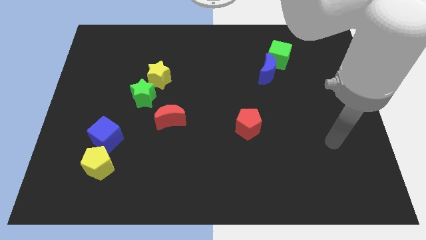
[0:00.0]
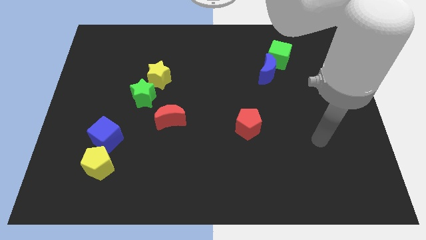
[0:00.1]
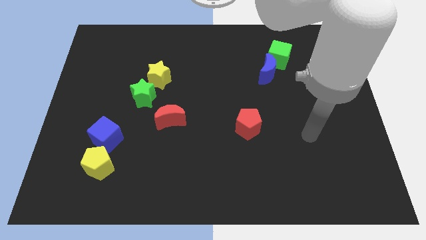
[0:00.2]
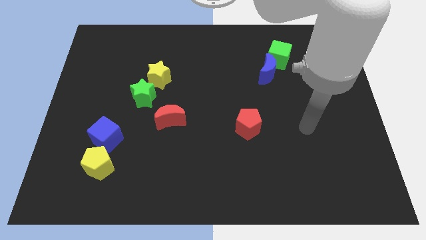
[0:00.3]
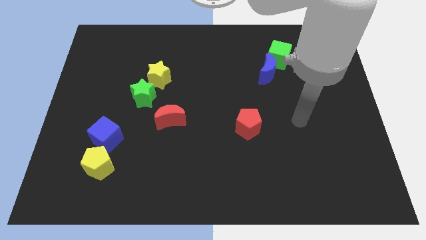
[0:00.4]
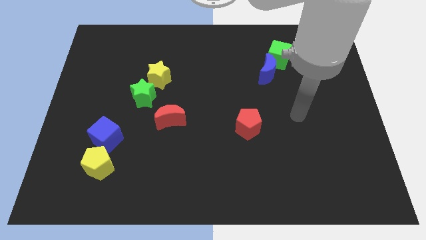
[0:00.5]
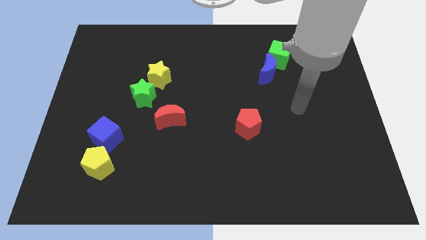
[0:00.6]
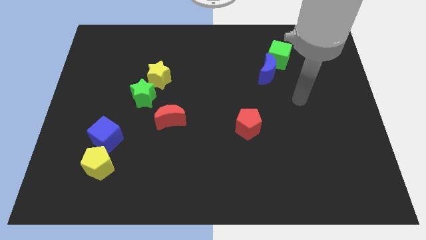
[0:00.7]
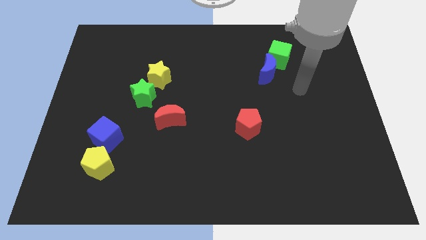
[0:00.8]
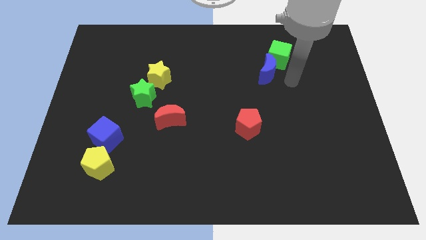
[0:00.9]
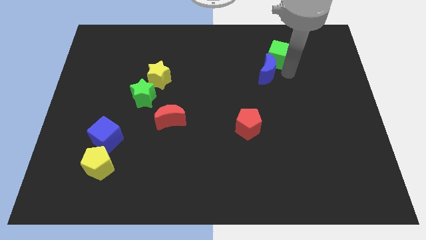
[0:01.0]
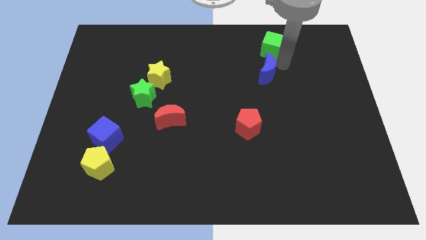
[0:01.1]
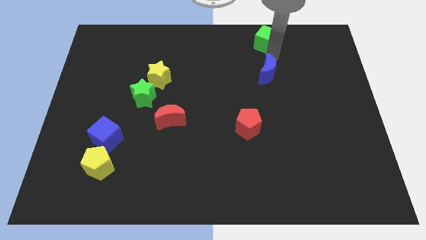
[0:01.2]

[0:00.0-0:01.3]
pull the blue moon apart from the green cube

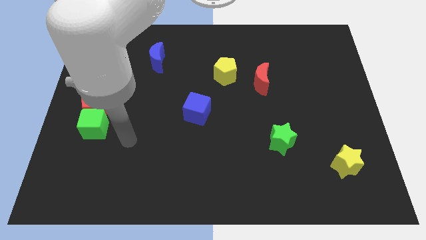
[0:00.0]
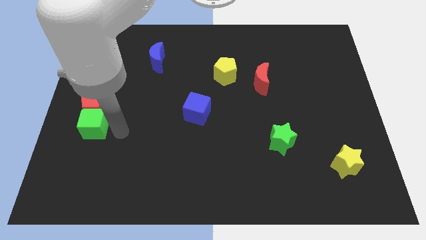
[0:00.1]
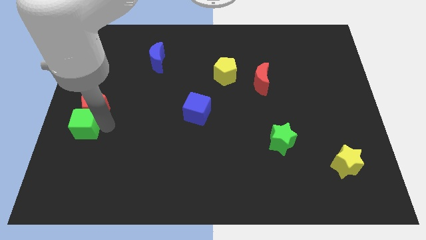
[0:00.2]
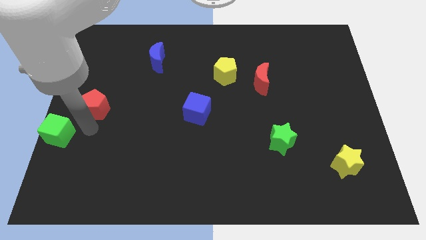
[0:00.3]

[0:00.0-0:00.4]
pull the red pentagon apart from the green cube

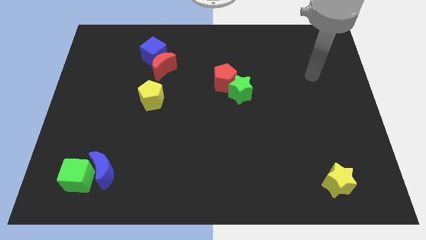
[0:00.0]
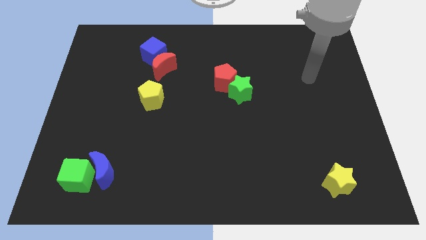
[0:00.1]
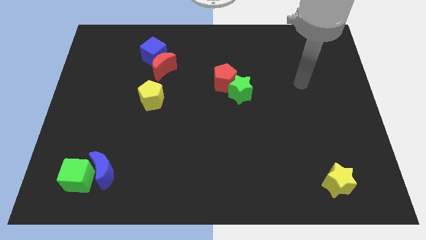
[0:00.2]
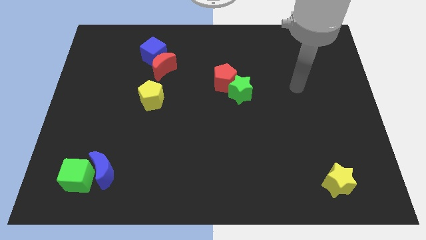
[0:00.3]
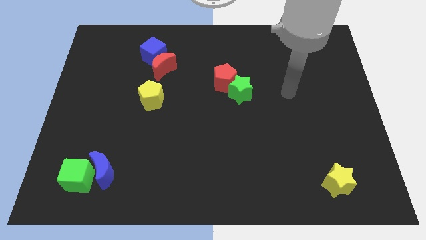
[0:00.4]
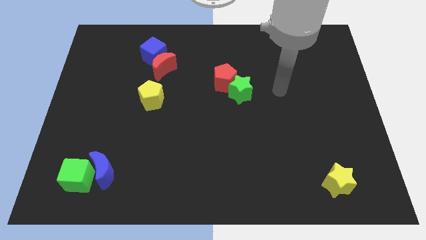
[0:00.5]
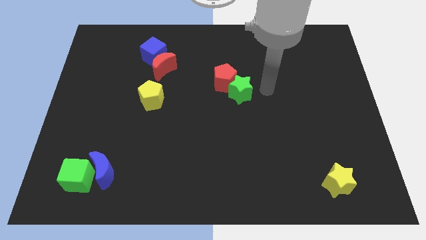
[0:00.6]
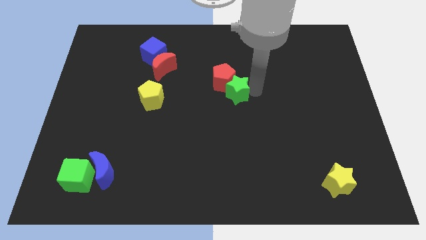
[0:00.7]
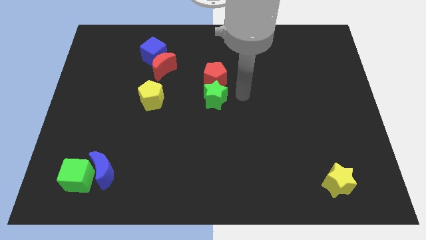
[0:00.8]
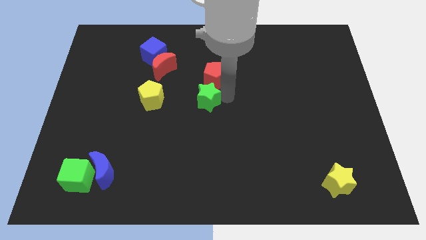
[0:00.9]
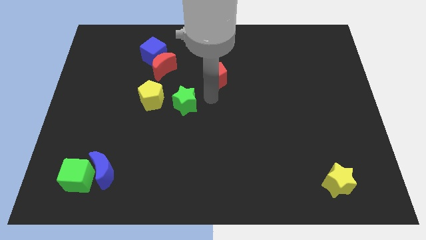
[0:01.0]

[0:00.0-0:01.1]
move the red pentagon away from the green star

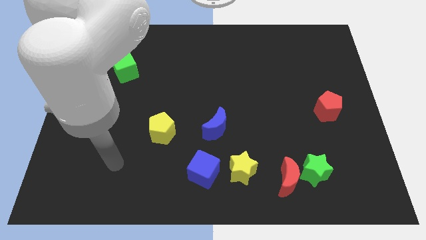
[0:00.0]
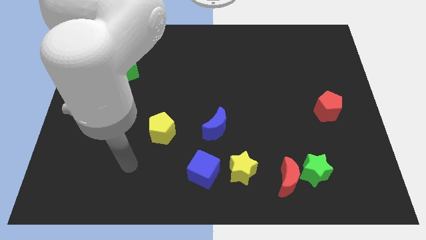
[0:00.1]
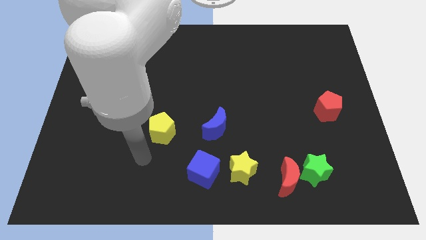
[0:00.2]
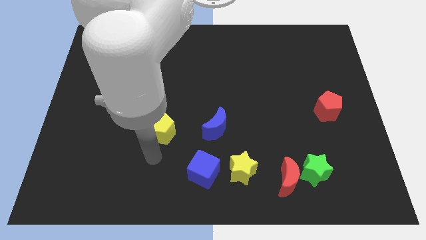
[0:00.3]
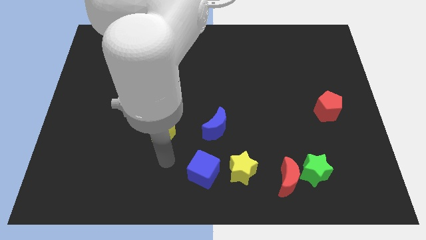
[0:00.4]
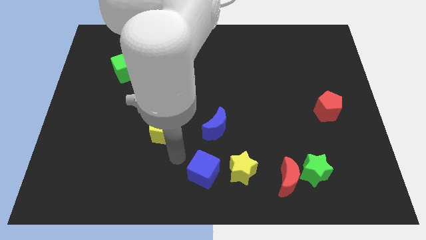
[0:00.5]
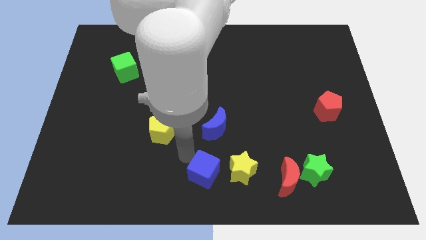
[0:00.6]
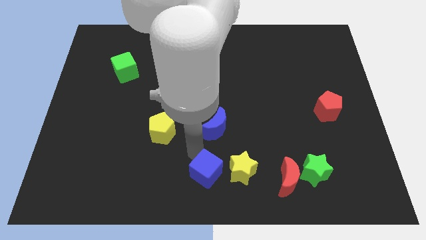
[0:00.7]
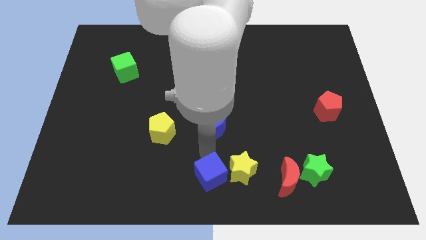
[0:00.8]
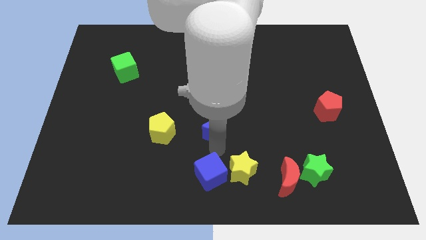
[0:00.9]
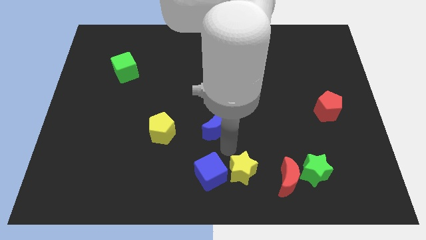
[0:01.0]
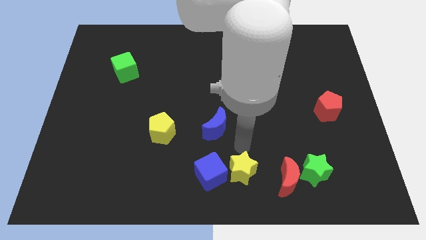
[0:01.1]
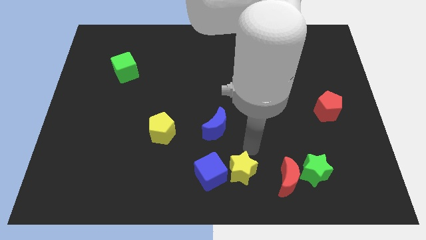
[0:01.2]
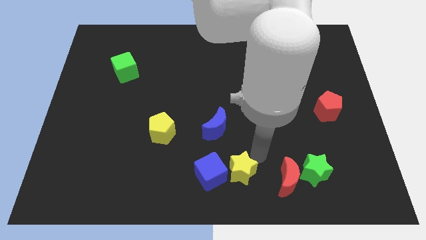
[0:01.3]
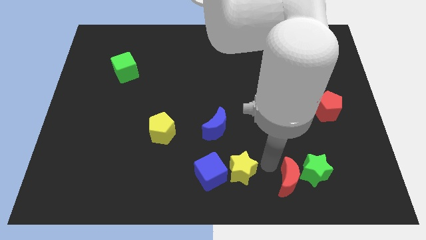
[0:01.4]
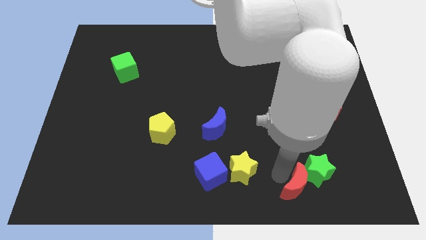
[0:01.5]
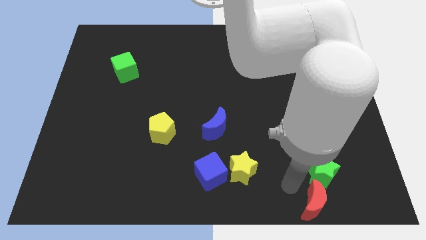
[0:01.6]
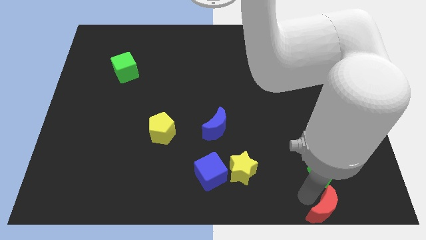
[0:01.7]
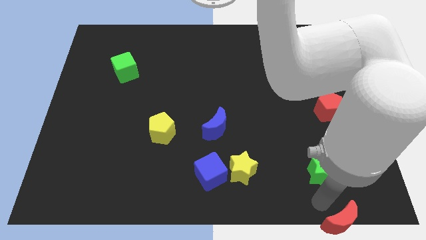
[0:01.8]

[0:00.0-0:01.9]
pull the green star apart from the red moon

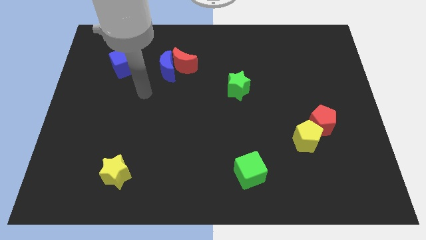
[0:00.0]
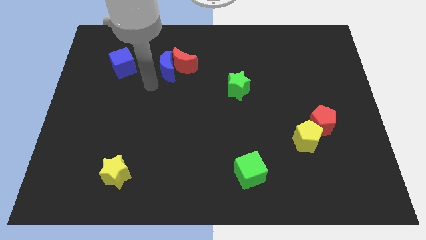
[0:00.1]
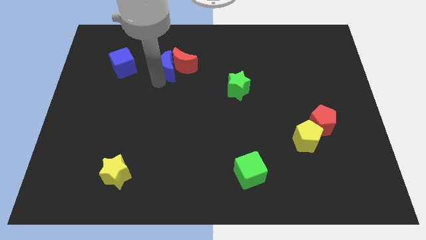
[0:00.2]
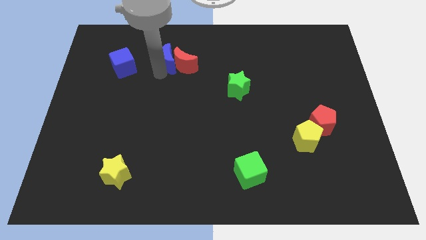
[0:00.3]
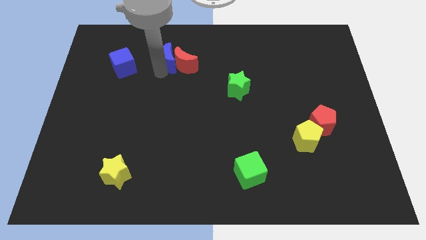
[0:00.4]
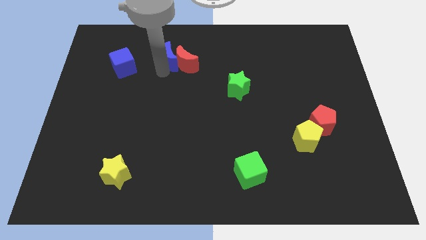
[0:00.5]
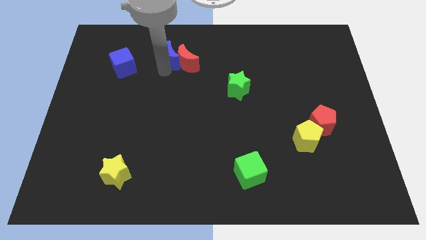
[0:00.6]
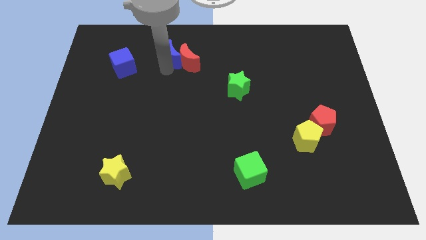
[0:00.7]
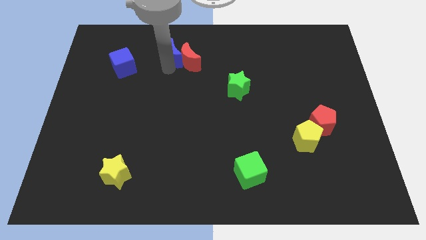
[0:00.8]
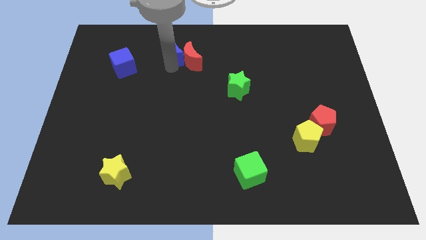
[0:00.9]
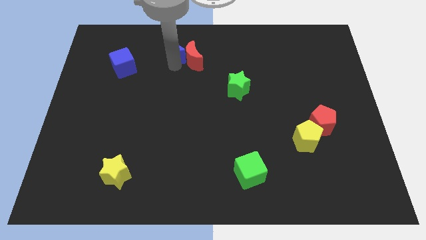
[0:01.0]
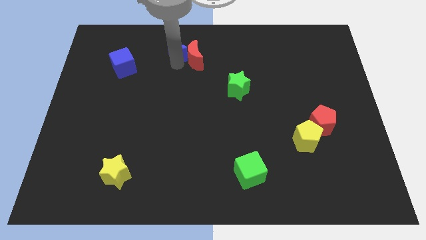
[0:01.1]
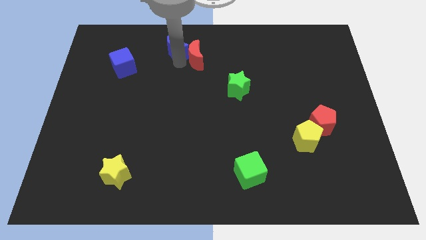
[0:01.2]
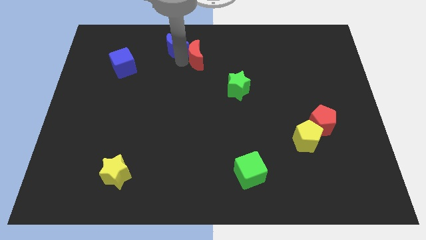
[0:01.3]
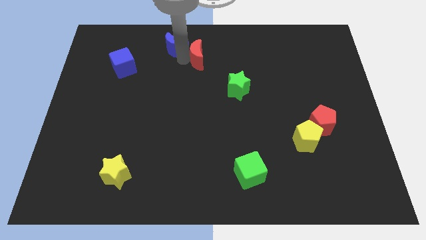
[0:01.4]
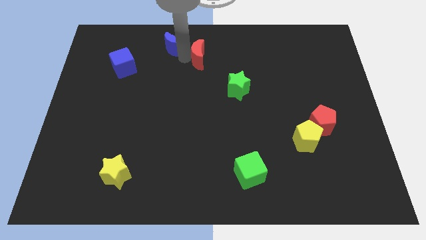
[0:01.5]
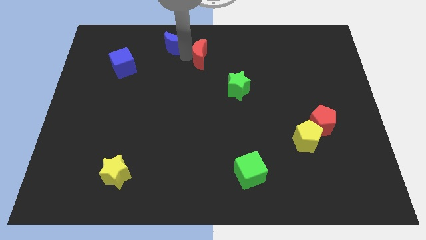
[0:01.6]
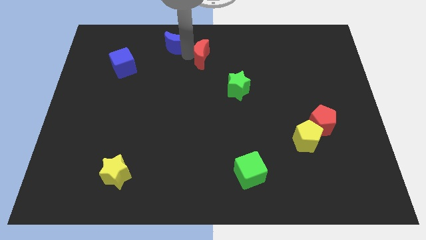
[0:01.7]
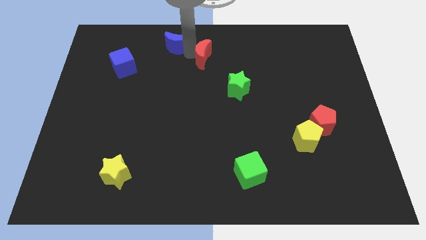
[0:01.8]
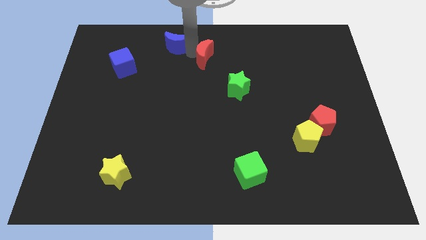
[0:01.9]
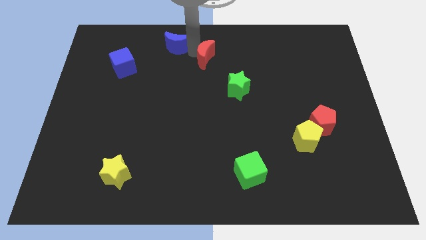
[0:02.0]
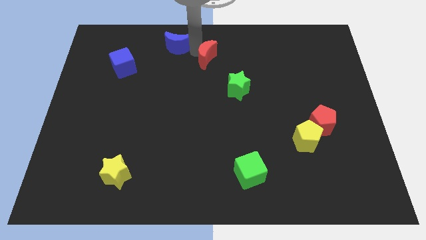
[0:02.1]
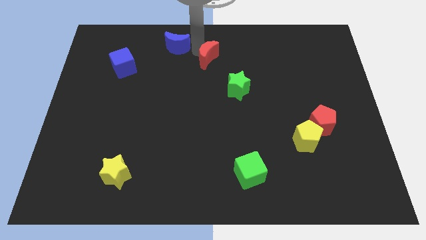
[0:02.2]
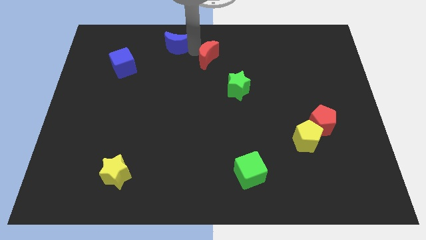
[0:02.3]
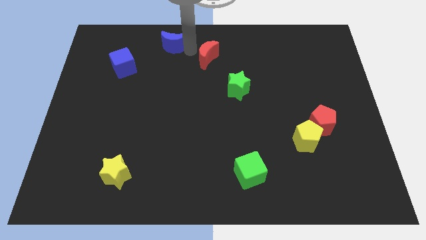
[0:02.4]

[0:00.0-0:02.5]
move the red moon away from the blue moon

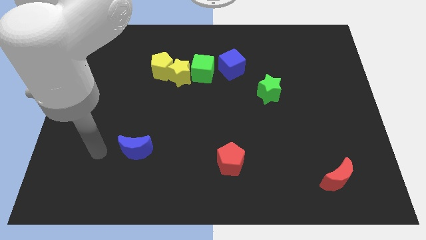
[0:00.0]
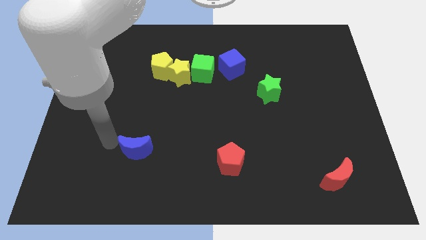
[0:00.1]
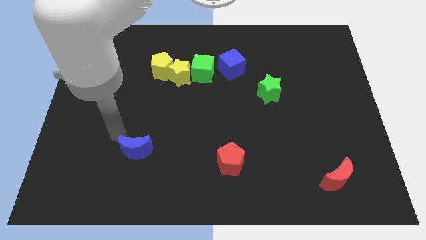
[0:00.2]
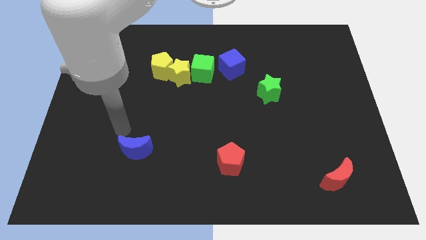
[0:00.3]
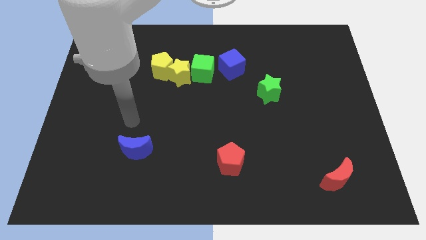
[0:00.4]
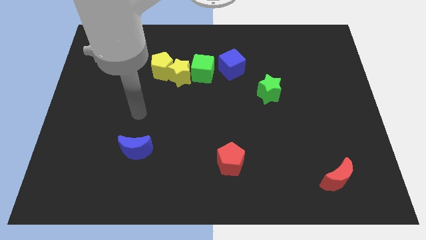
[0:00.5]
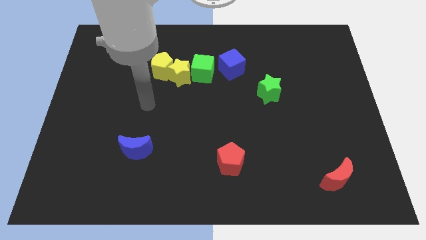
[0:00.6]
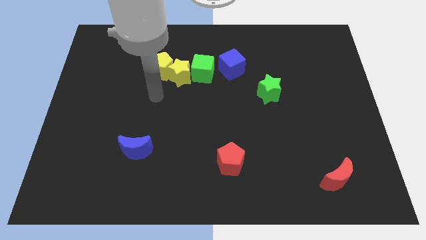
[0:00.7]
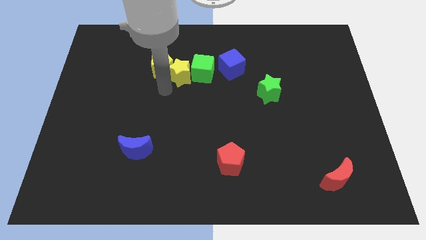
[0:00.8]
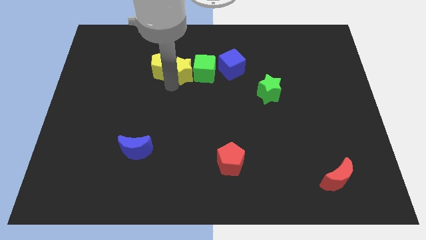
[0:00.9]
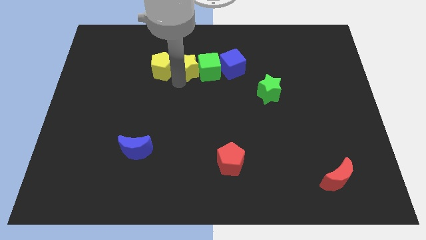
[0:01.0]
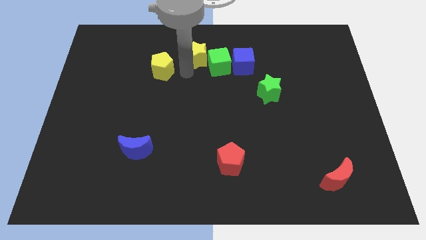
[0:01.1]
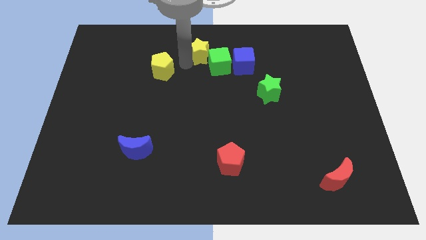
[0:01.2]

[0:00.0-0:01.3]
pull the yellow pentagon apart from the yellow star

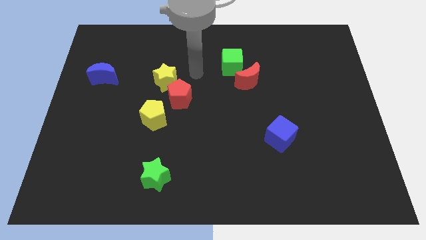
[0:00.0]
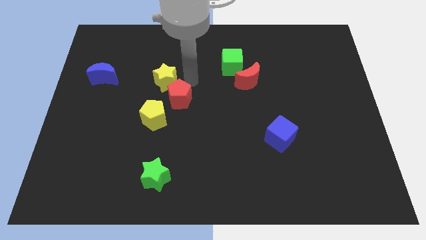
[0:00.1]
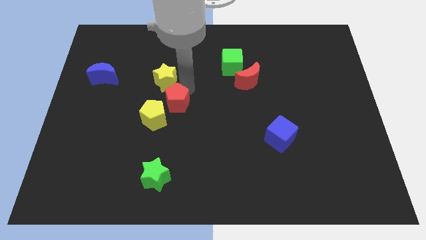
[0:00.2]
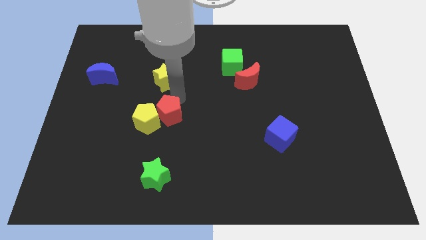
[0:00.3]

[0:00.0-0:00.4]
move the yellow star away from the red pentagon

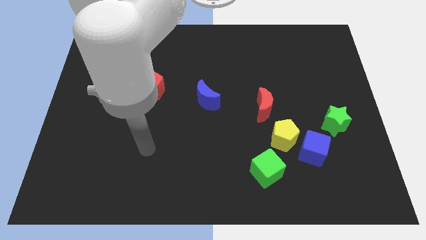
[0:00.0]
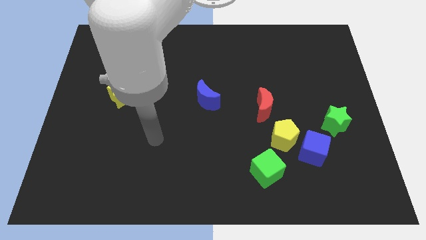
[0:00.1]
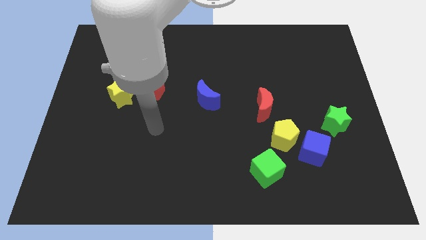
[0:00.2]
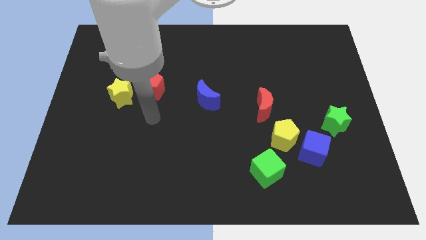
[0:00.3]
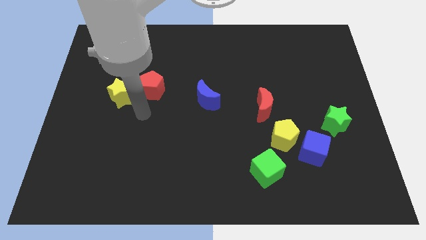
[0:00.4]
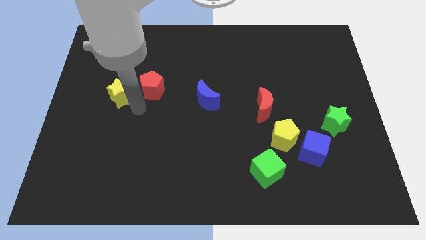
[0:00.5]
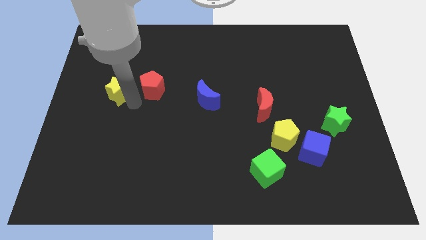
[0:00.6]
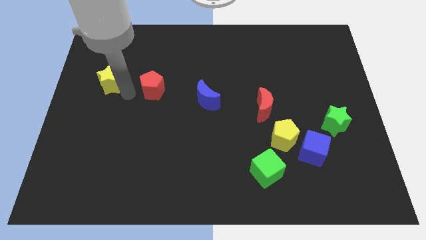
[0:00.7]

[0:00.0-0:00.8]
pull the red pentagon apart from the yellow star
